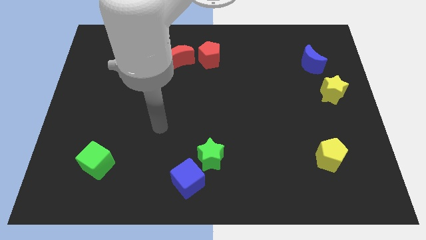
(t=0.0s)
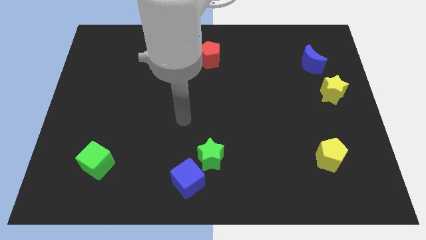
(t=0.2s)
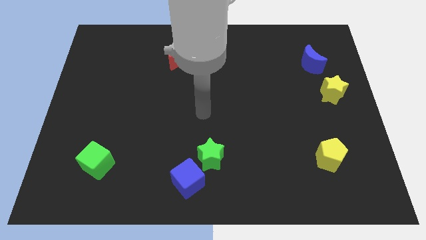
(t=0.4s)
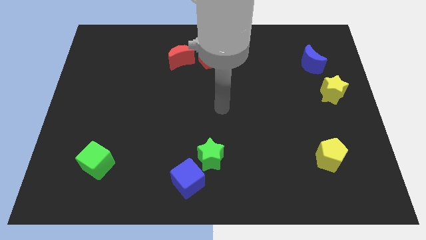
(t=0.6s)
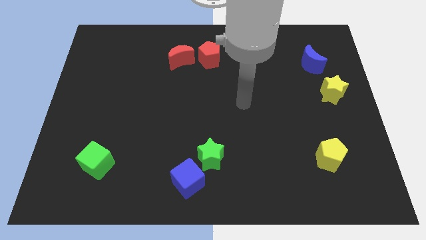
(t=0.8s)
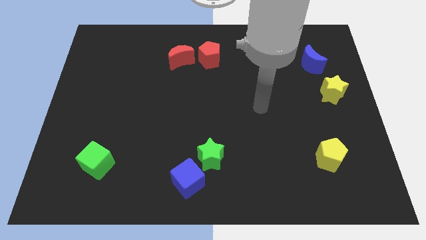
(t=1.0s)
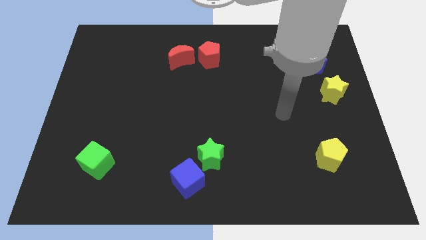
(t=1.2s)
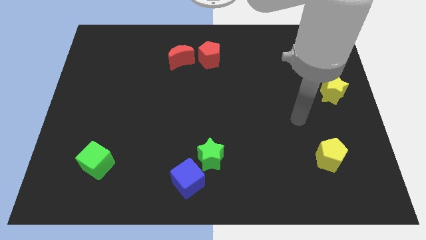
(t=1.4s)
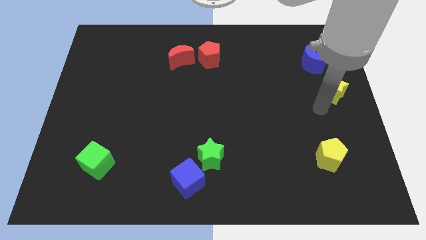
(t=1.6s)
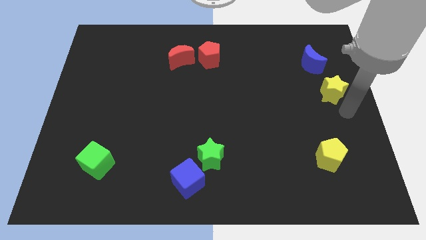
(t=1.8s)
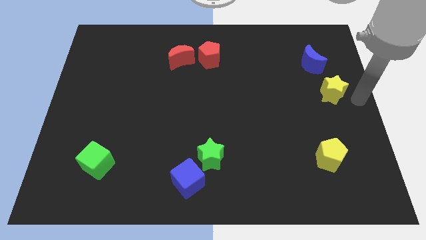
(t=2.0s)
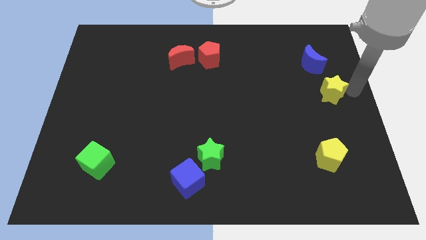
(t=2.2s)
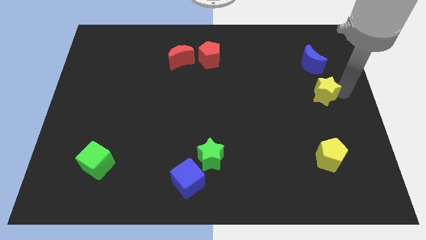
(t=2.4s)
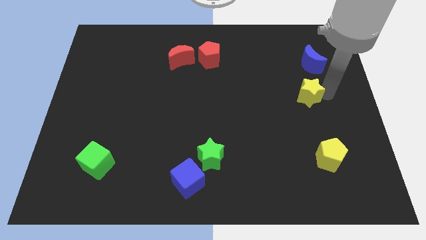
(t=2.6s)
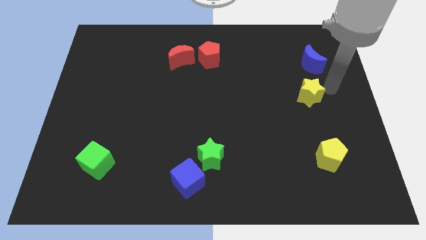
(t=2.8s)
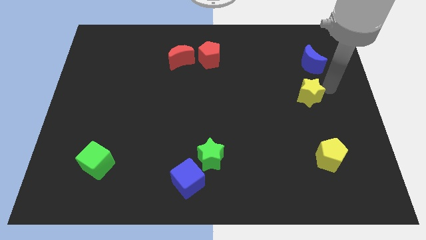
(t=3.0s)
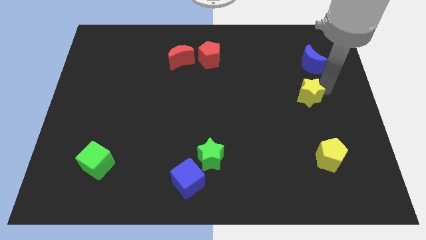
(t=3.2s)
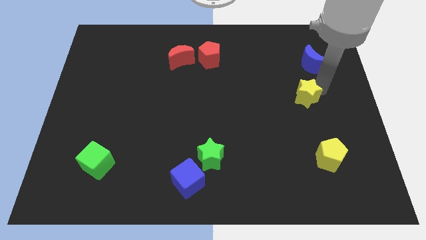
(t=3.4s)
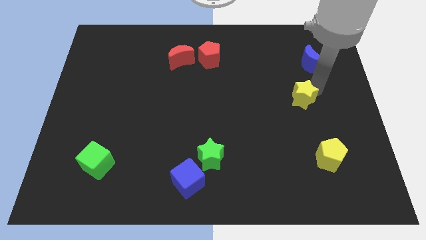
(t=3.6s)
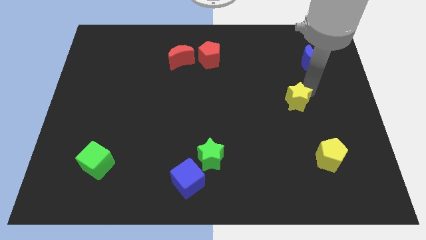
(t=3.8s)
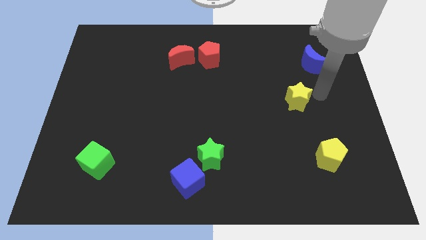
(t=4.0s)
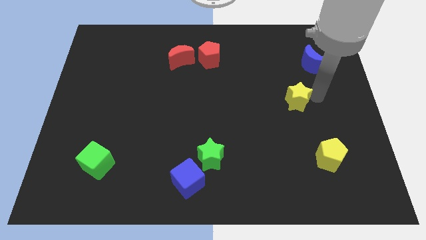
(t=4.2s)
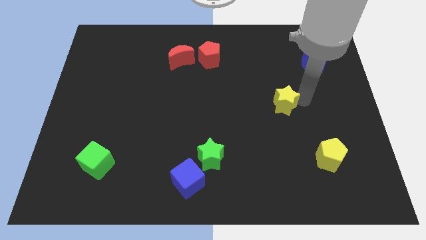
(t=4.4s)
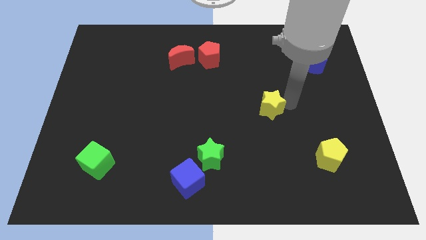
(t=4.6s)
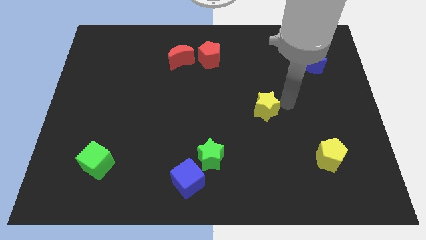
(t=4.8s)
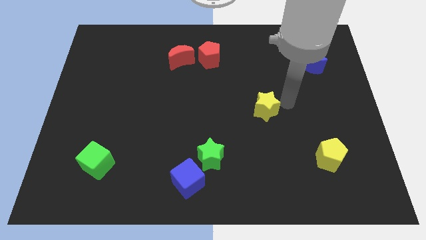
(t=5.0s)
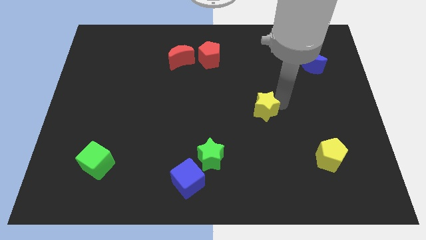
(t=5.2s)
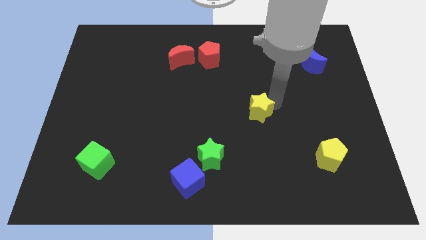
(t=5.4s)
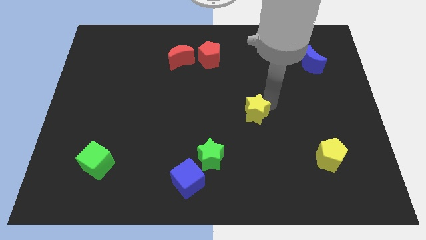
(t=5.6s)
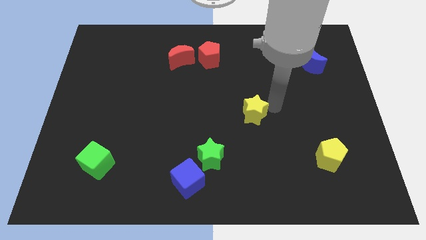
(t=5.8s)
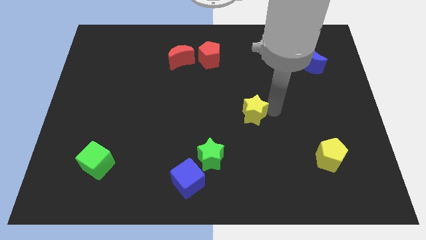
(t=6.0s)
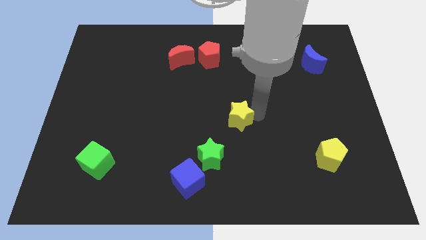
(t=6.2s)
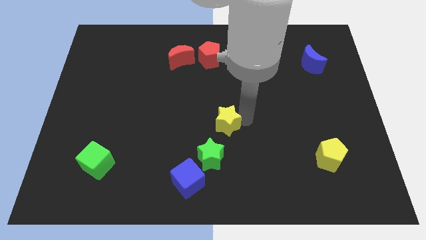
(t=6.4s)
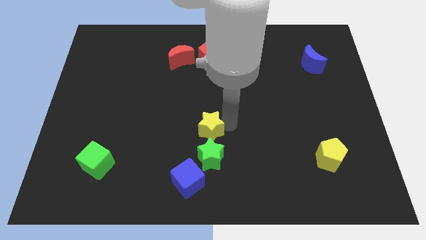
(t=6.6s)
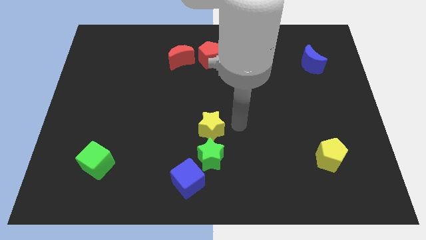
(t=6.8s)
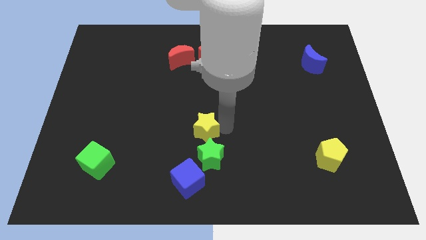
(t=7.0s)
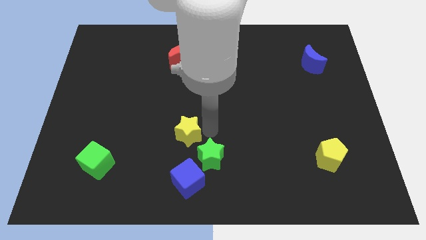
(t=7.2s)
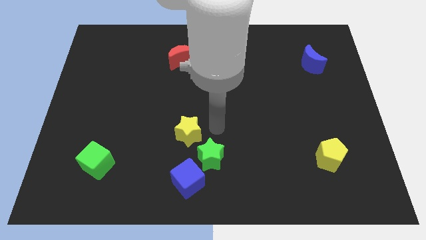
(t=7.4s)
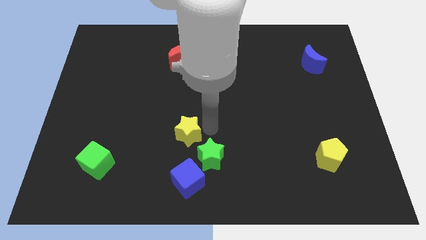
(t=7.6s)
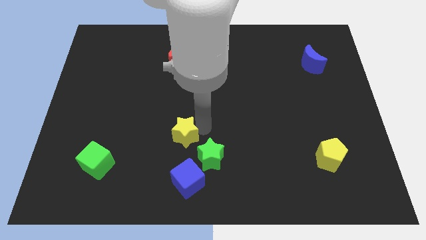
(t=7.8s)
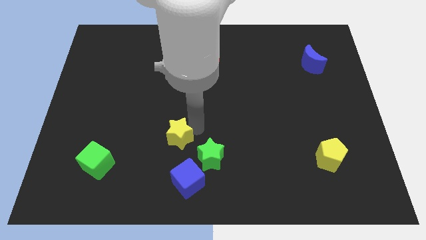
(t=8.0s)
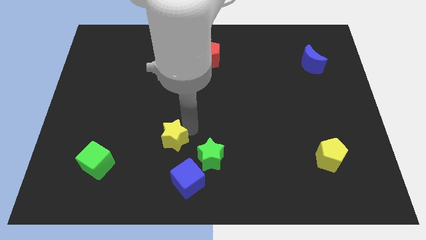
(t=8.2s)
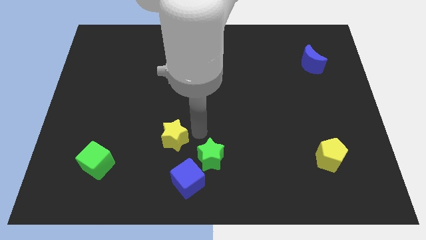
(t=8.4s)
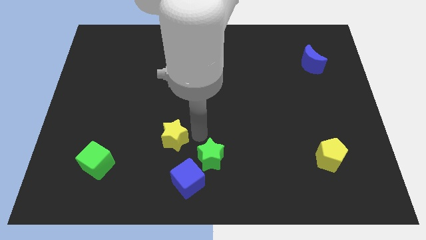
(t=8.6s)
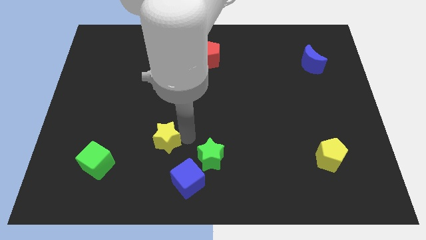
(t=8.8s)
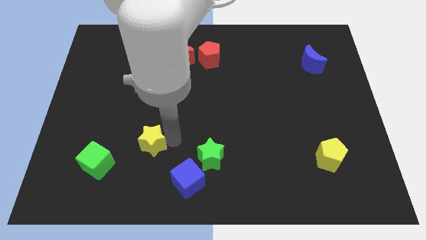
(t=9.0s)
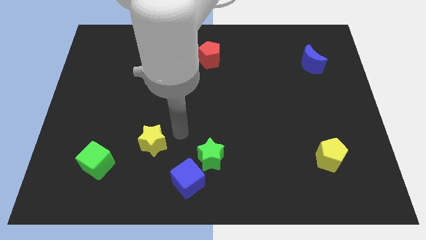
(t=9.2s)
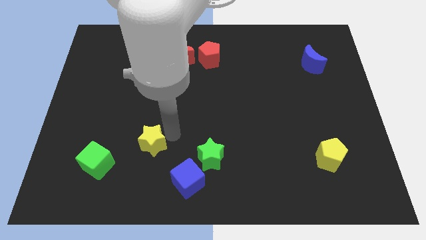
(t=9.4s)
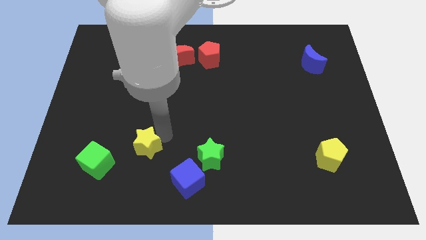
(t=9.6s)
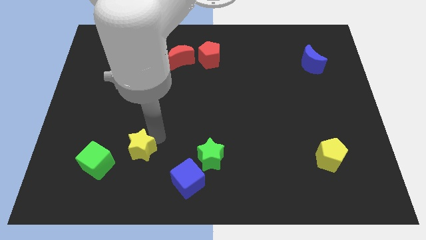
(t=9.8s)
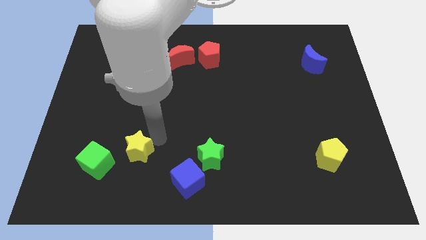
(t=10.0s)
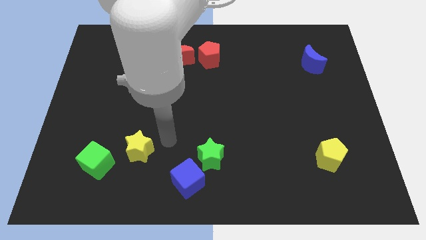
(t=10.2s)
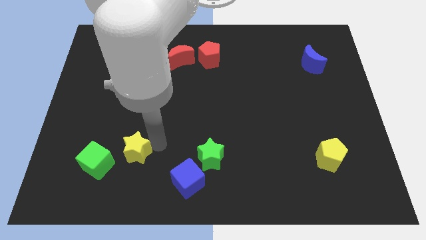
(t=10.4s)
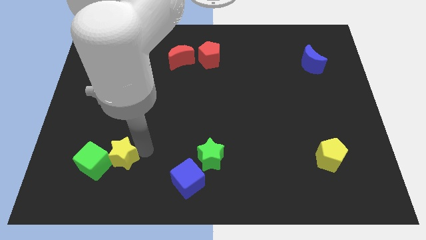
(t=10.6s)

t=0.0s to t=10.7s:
put the yellow star to the green cube

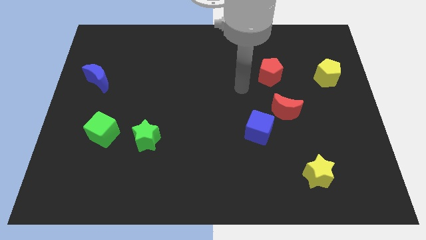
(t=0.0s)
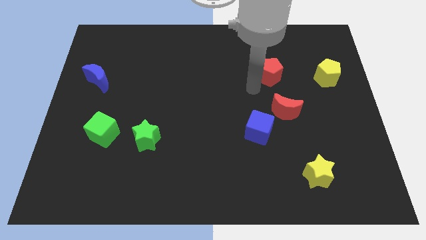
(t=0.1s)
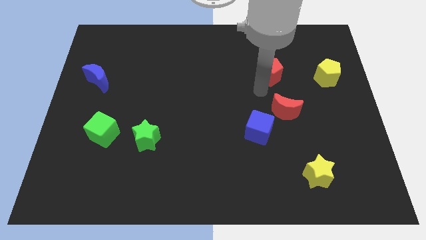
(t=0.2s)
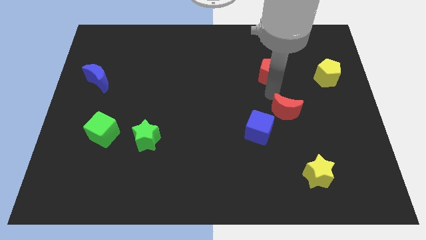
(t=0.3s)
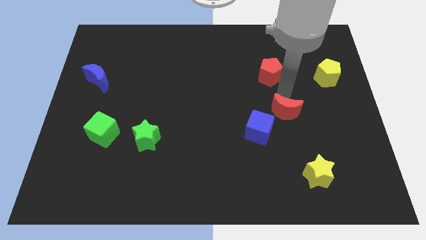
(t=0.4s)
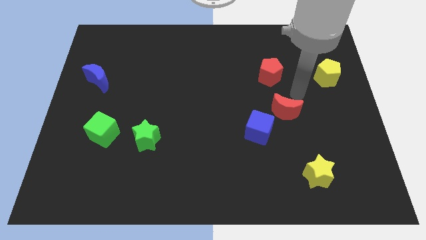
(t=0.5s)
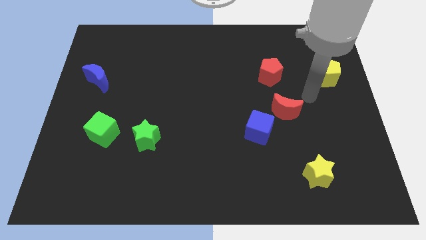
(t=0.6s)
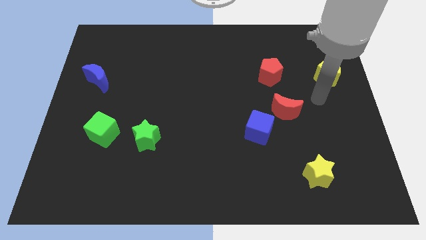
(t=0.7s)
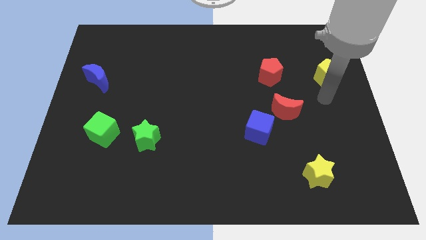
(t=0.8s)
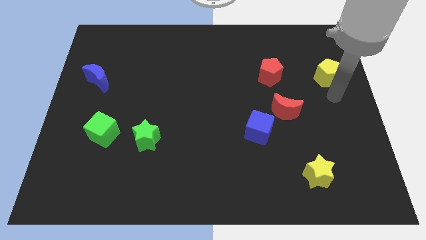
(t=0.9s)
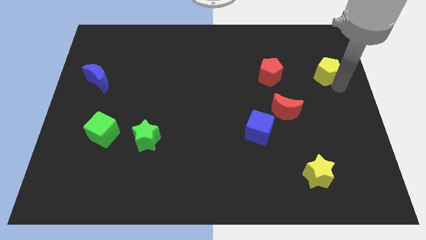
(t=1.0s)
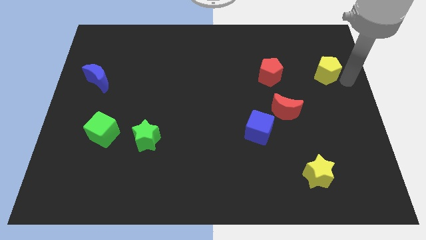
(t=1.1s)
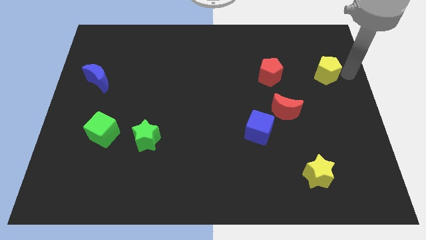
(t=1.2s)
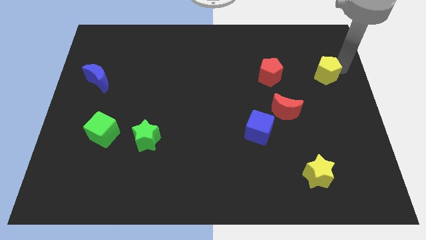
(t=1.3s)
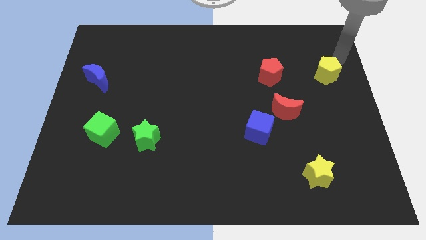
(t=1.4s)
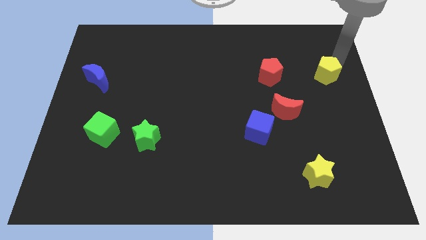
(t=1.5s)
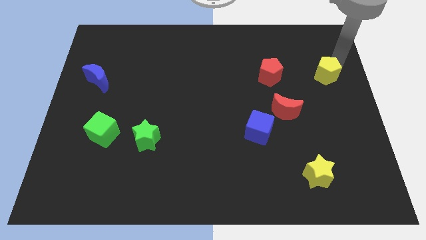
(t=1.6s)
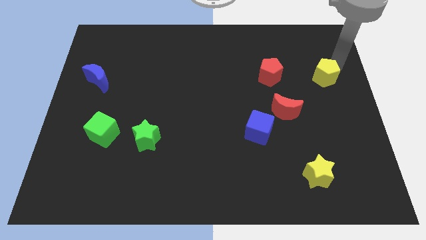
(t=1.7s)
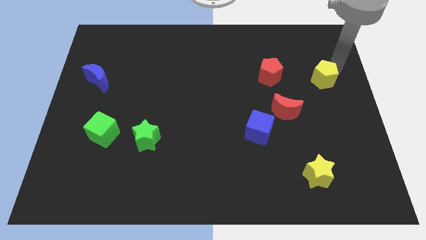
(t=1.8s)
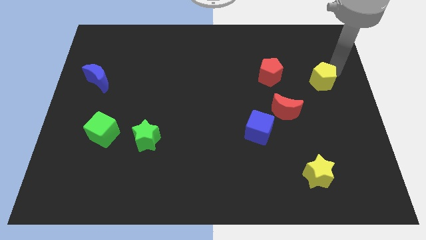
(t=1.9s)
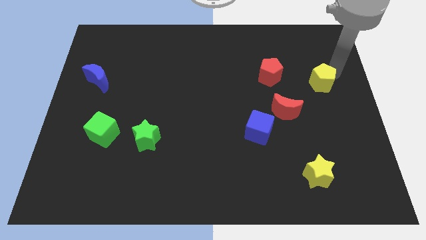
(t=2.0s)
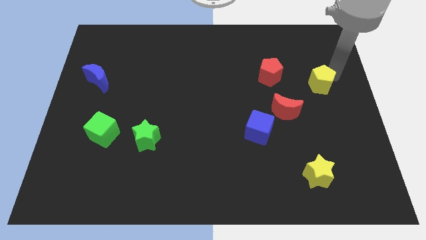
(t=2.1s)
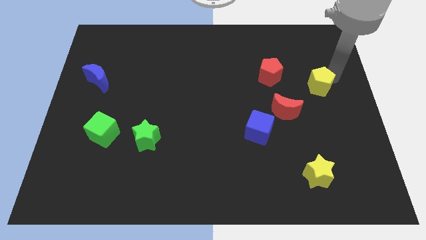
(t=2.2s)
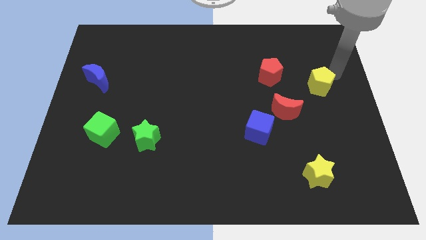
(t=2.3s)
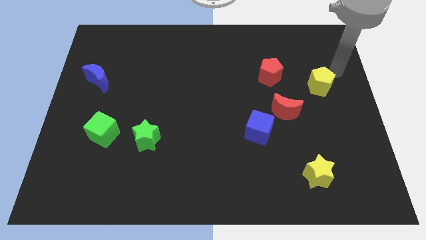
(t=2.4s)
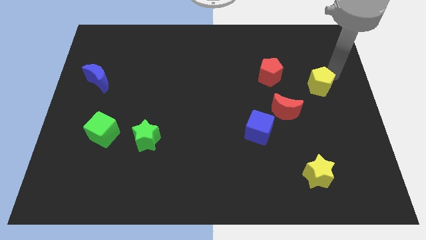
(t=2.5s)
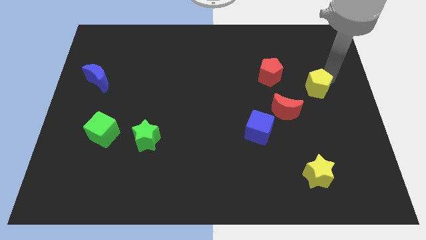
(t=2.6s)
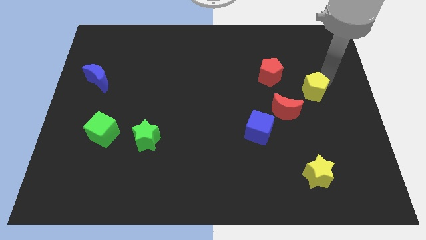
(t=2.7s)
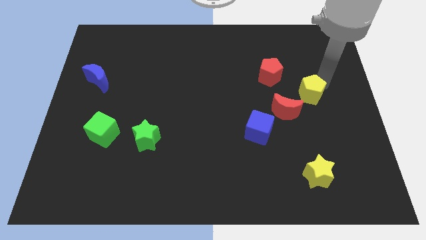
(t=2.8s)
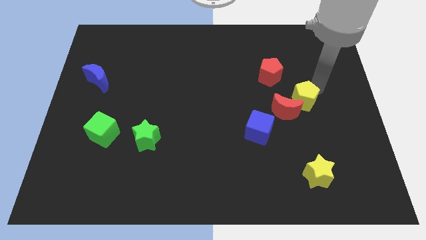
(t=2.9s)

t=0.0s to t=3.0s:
move the yellow pentagon next to the red moon
